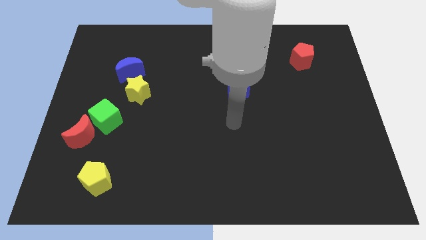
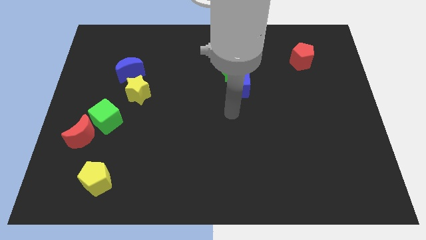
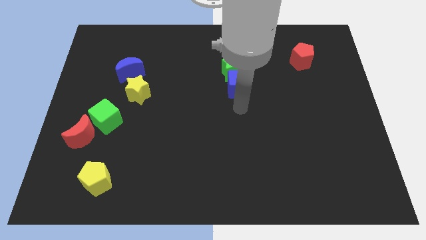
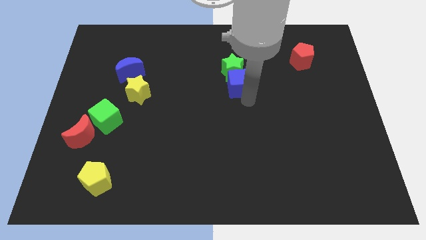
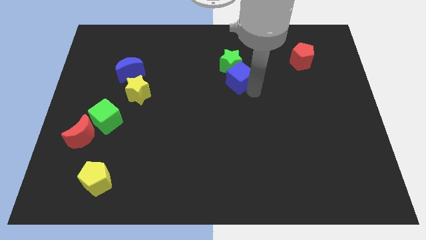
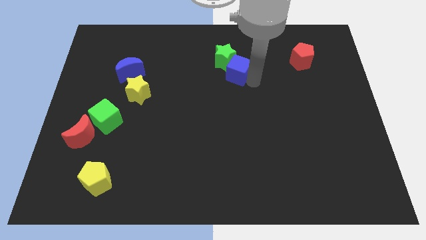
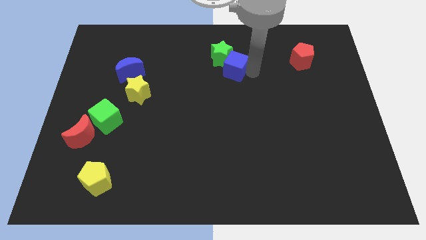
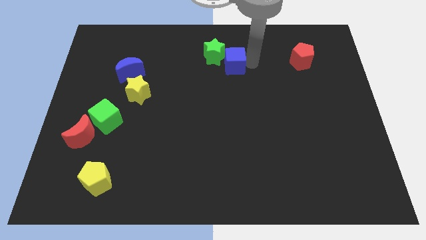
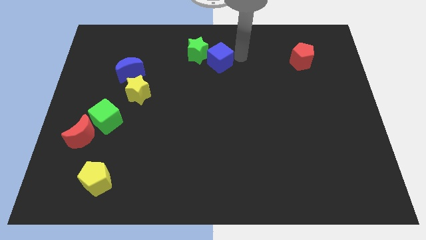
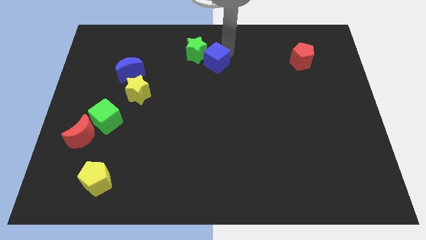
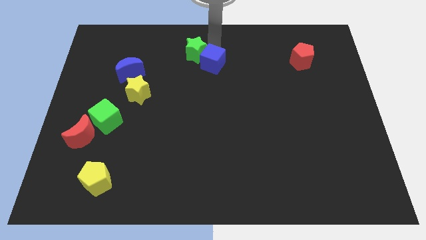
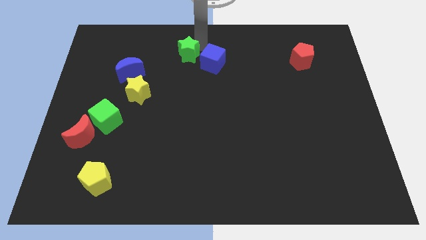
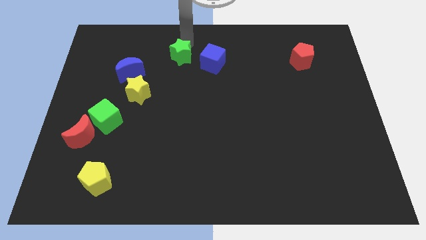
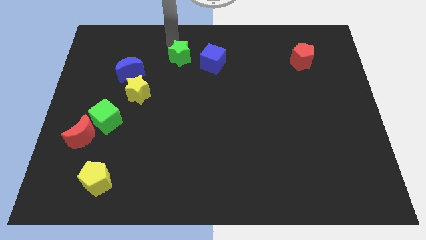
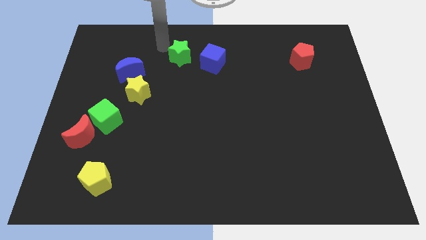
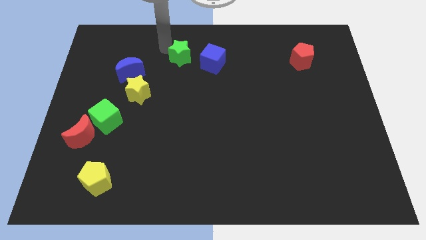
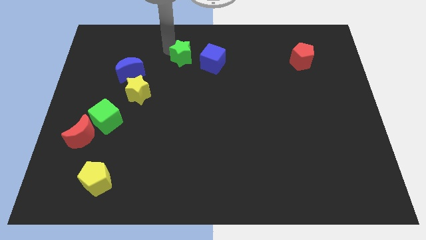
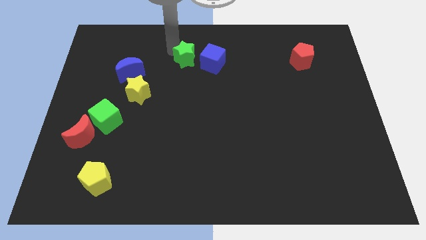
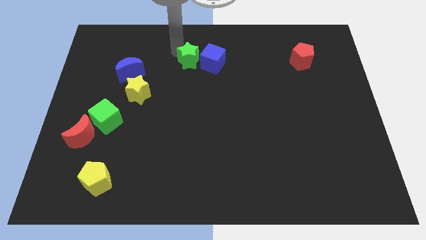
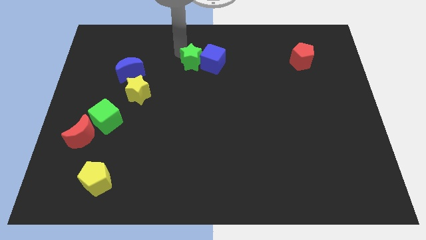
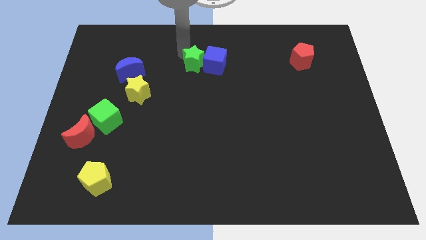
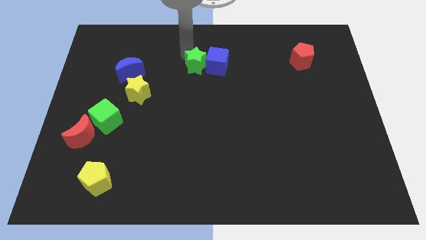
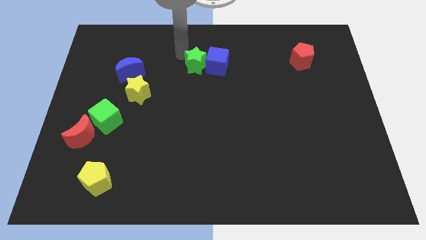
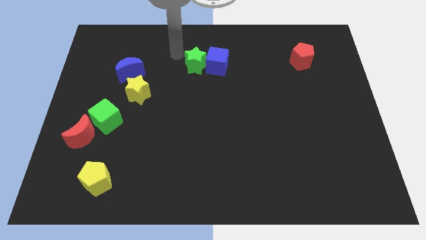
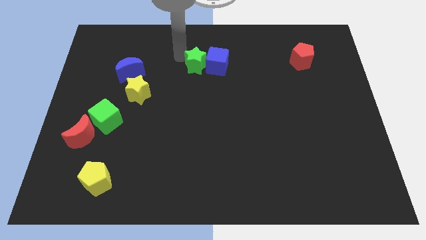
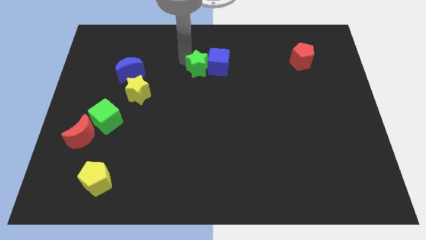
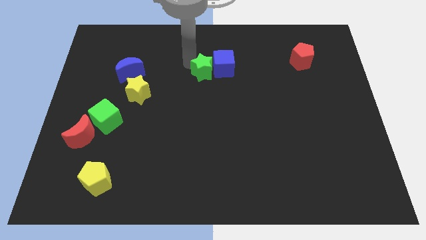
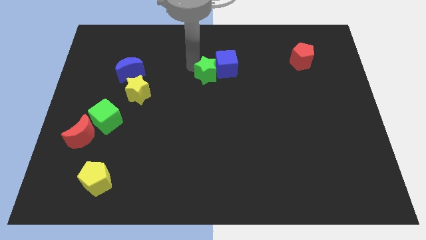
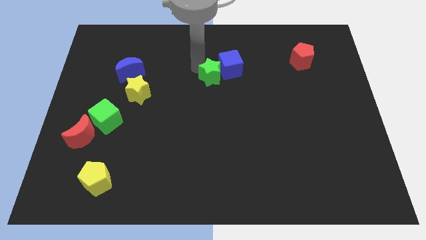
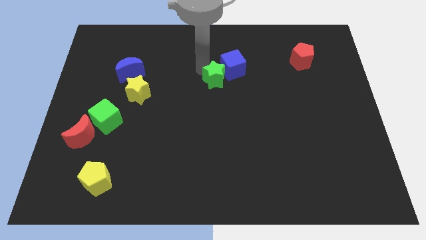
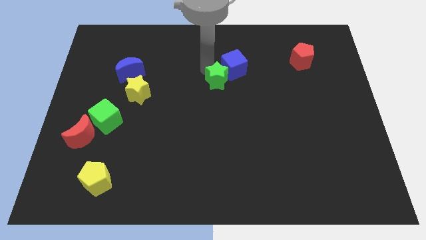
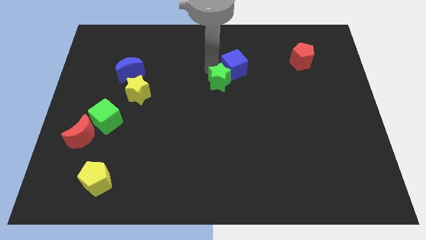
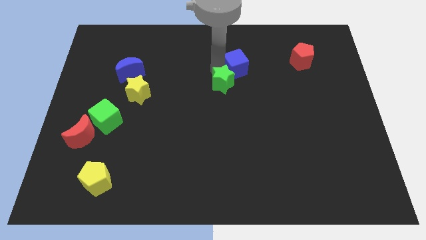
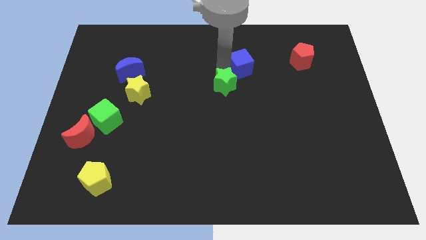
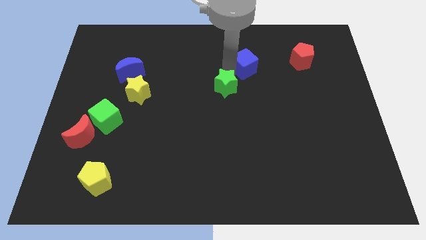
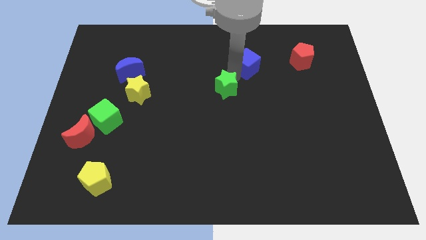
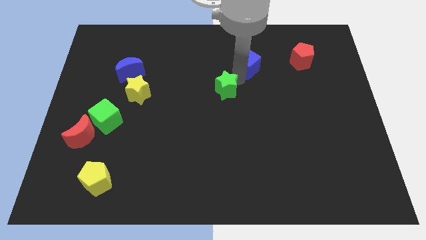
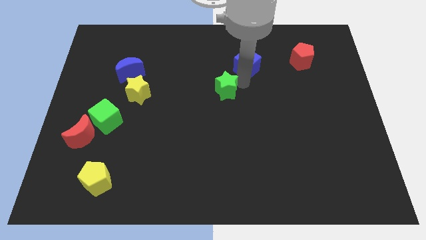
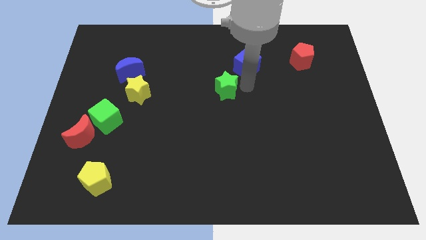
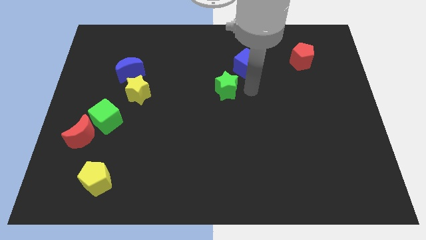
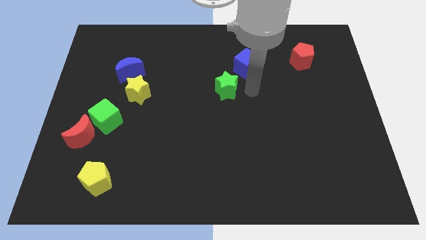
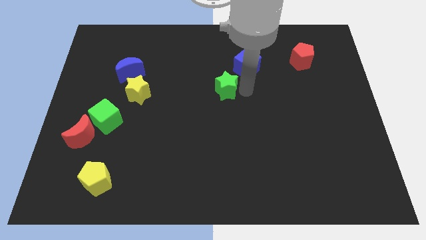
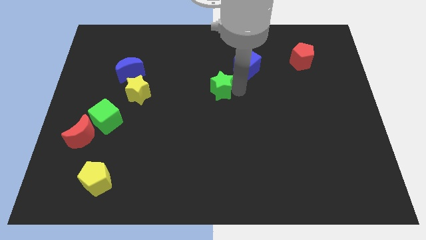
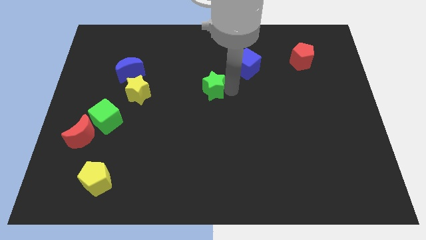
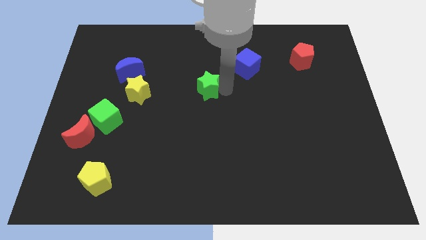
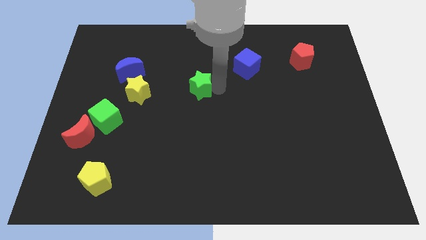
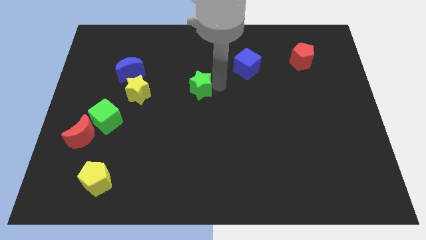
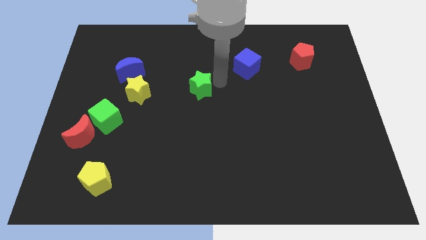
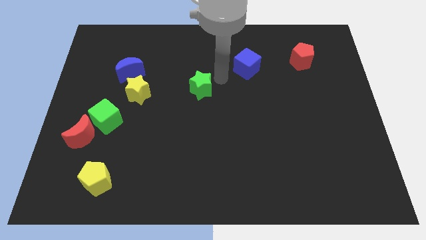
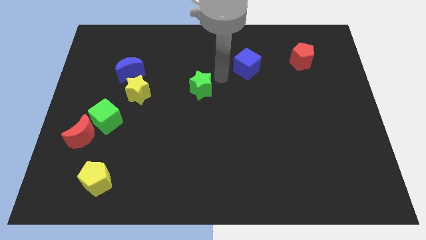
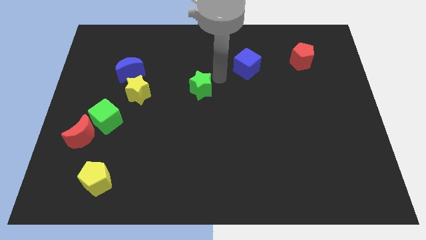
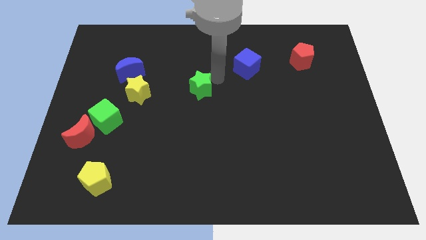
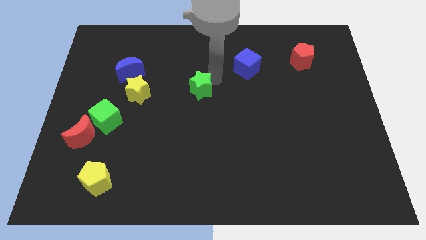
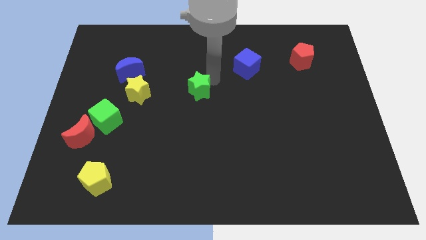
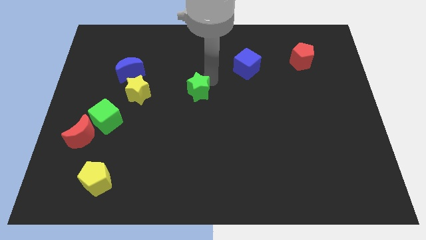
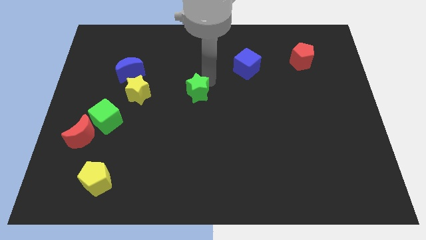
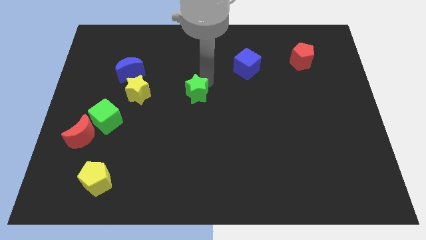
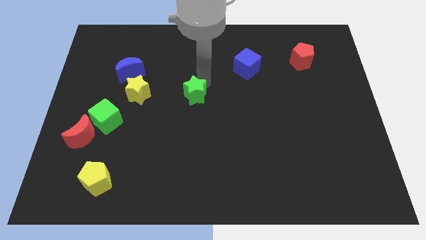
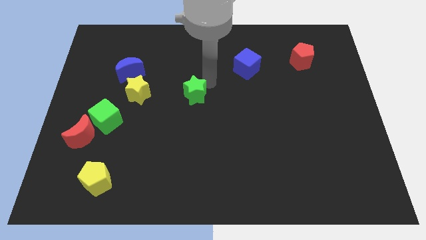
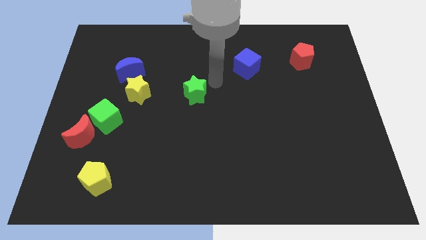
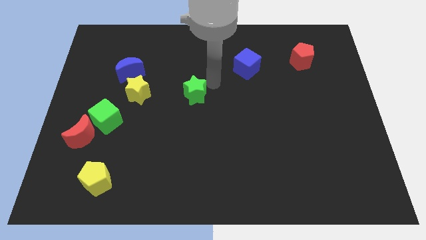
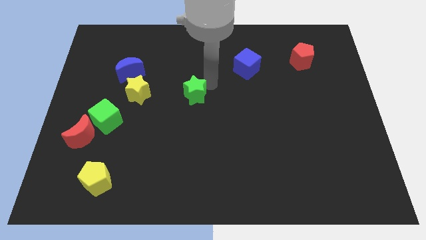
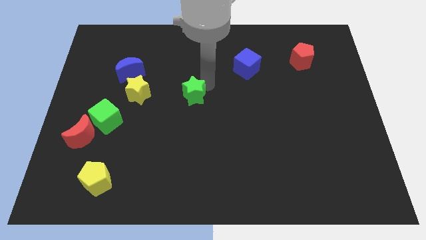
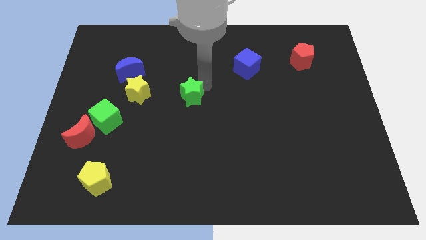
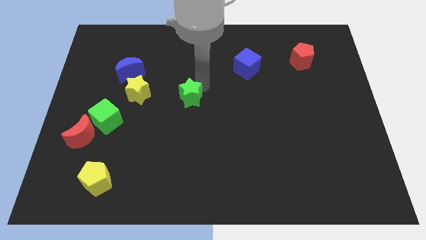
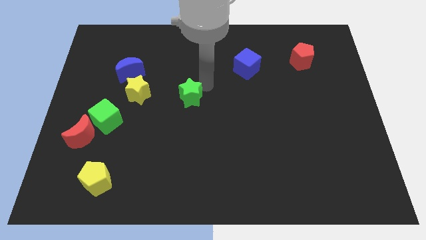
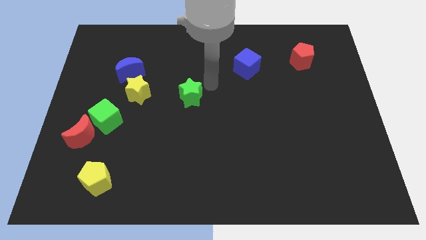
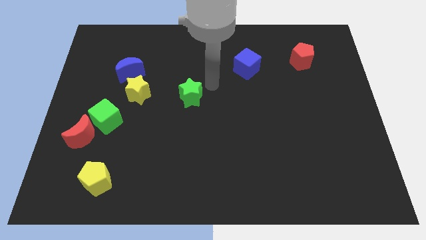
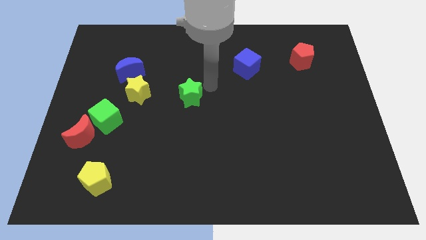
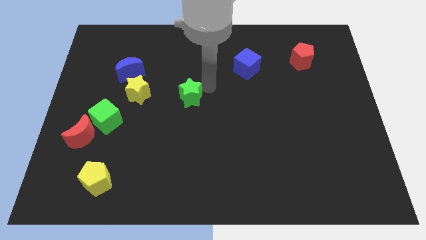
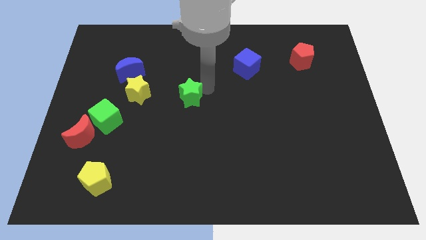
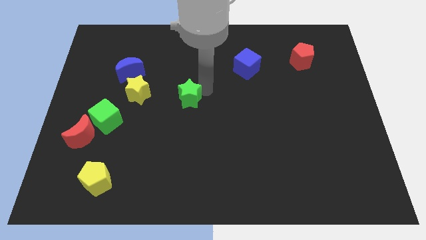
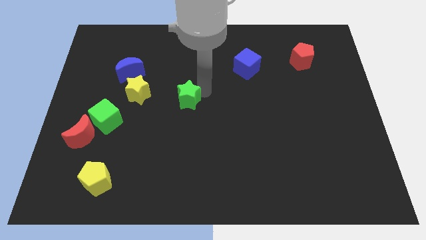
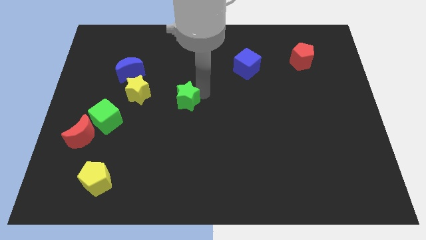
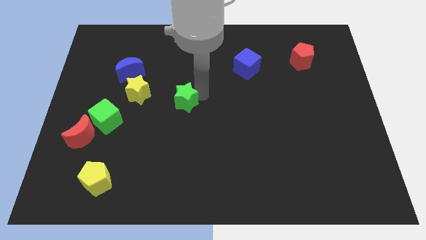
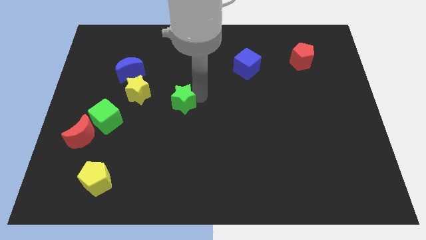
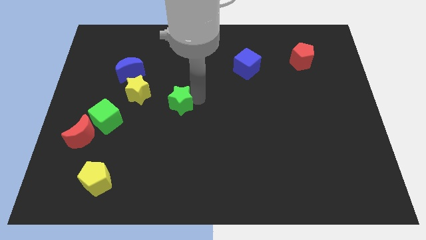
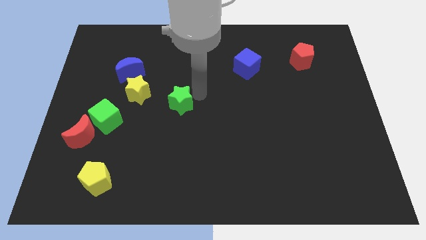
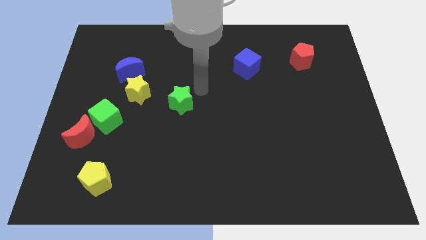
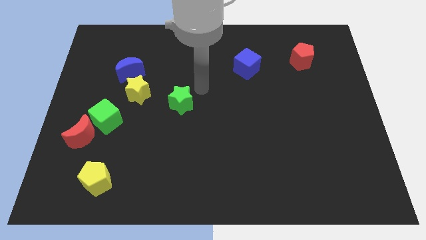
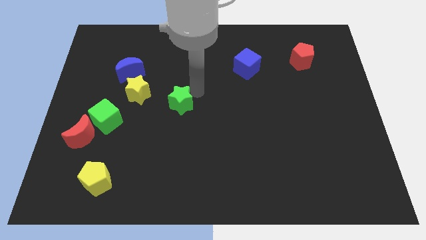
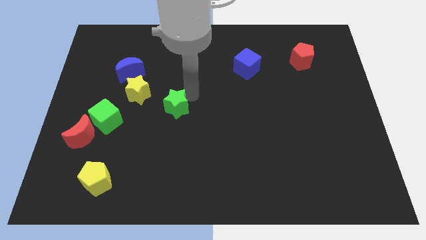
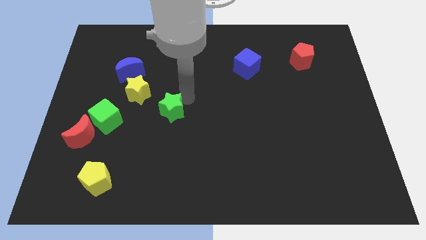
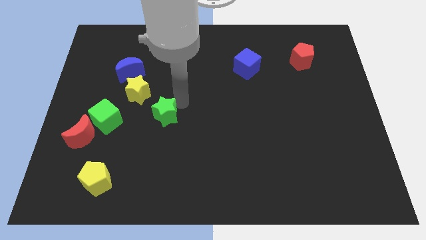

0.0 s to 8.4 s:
slide the green star down and left
